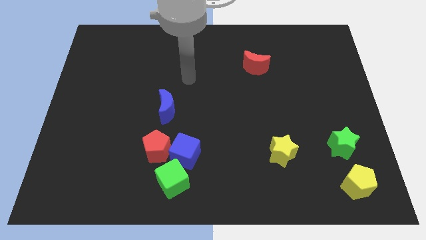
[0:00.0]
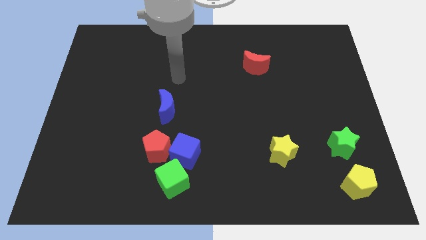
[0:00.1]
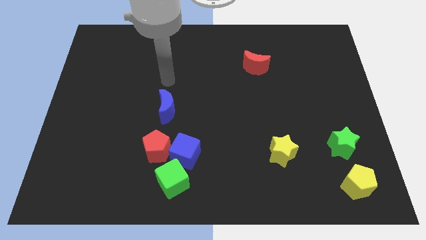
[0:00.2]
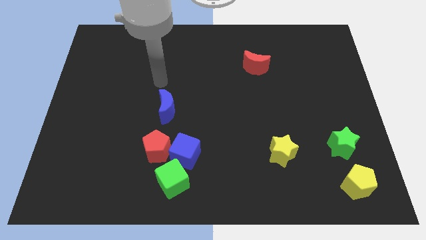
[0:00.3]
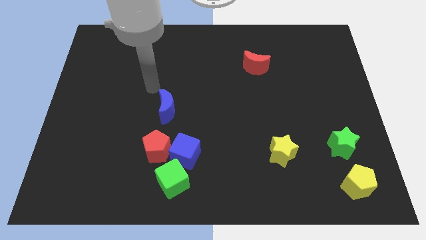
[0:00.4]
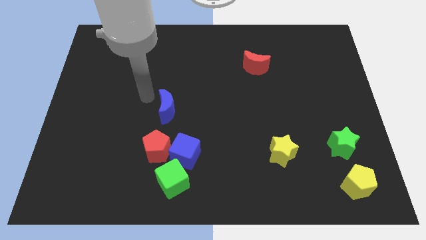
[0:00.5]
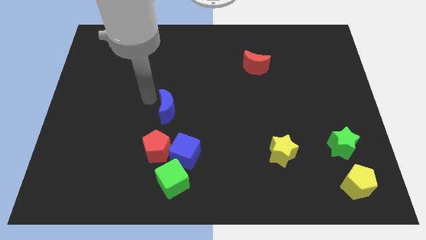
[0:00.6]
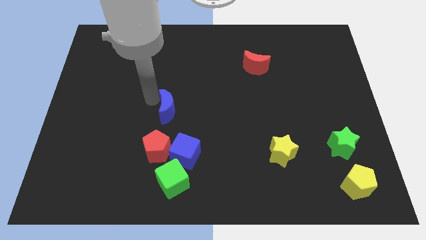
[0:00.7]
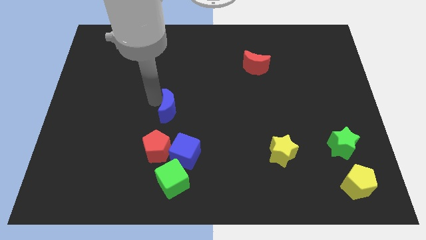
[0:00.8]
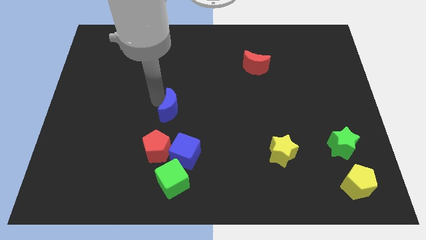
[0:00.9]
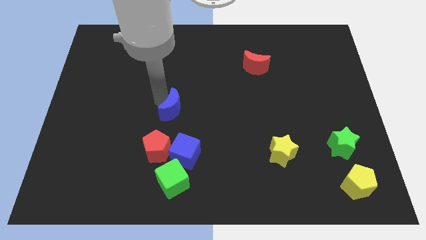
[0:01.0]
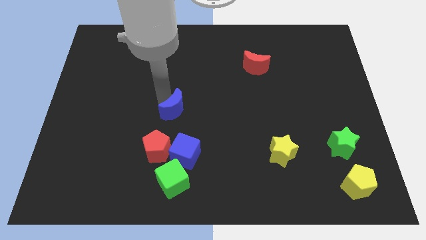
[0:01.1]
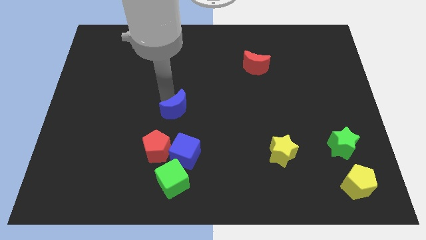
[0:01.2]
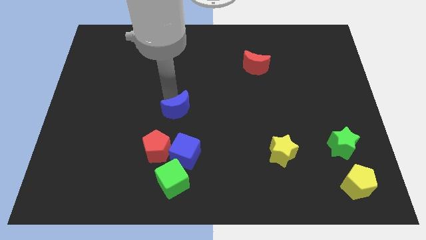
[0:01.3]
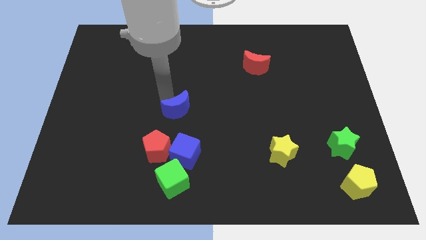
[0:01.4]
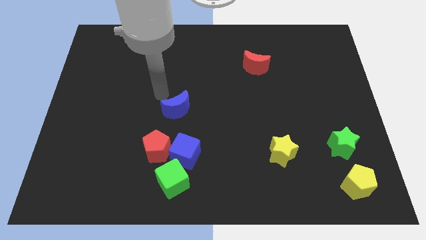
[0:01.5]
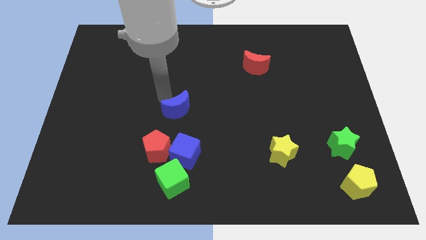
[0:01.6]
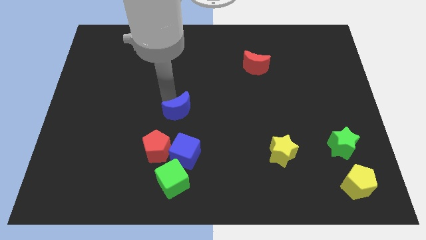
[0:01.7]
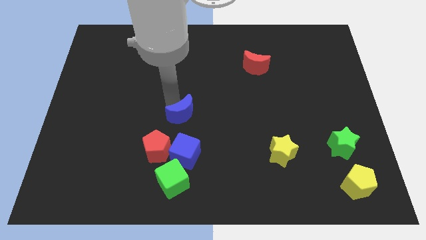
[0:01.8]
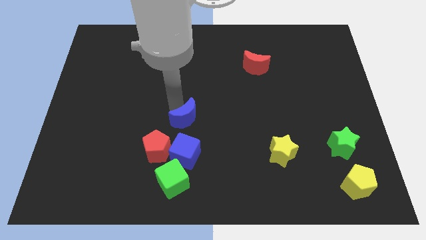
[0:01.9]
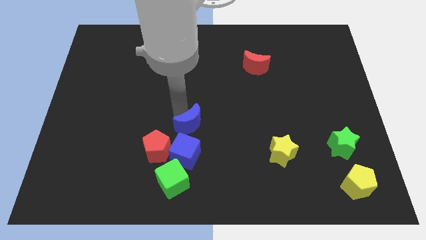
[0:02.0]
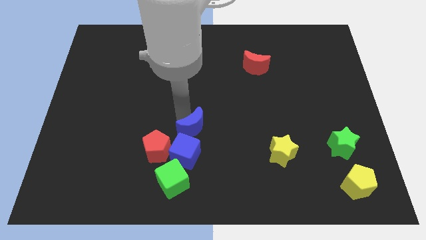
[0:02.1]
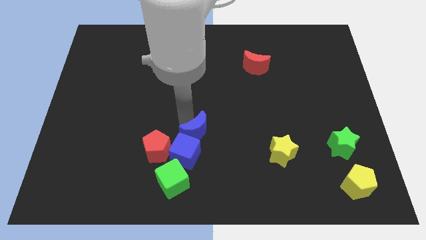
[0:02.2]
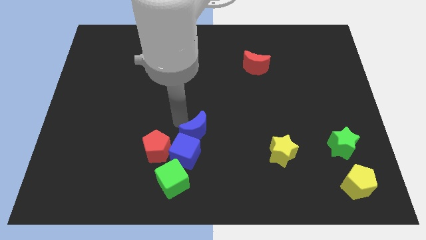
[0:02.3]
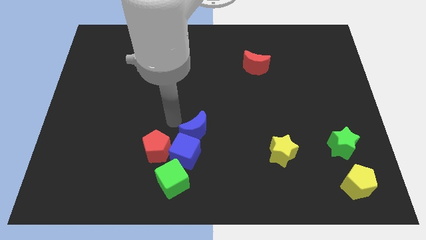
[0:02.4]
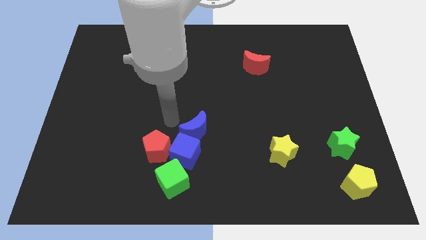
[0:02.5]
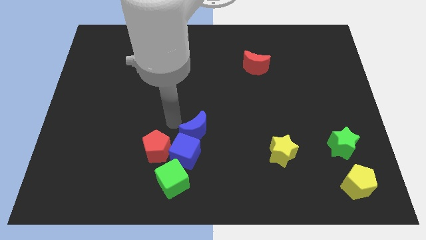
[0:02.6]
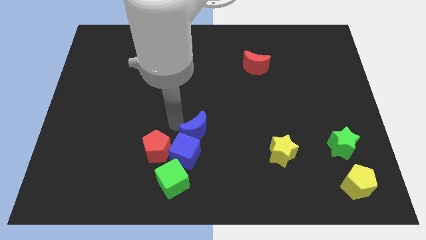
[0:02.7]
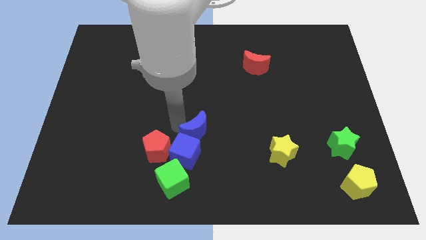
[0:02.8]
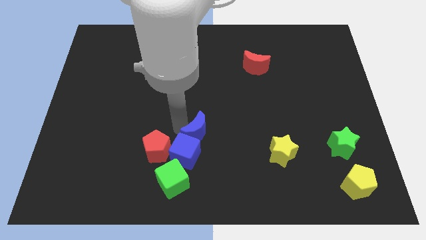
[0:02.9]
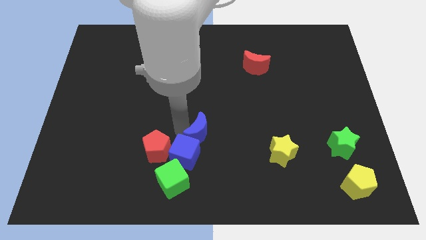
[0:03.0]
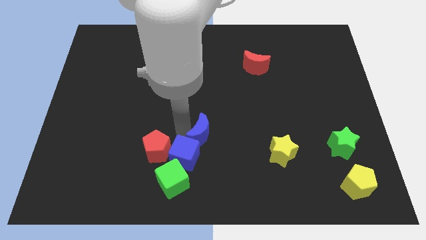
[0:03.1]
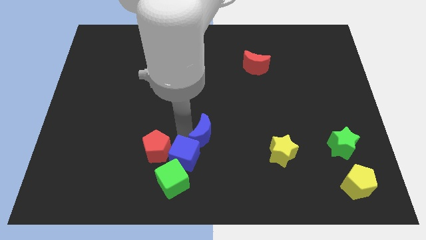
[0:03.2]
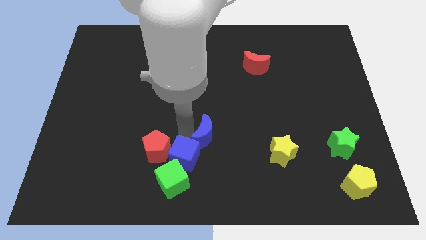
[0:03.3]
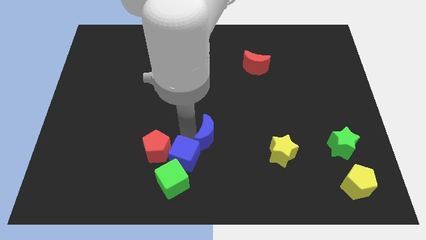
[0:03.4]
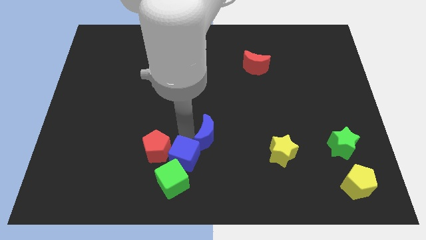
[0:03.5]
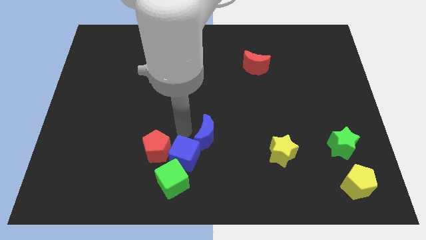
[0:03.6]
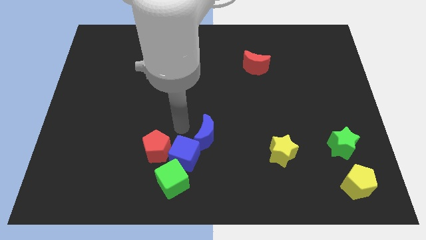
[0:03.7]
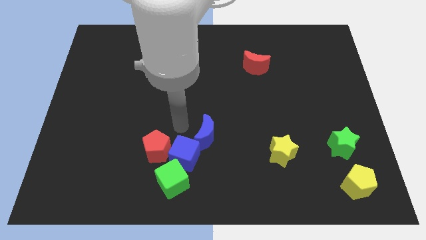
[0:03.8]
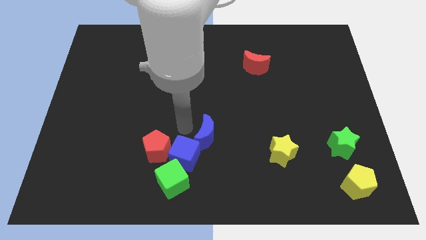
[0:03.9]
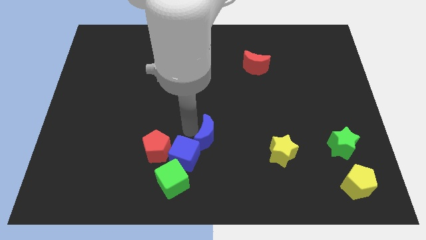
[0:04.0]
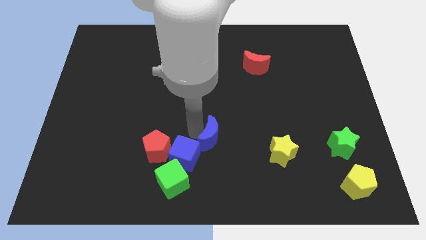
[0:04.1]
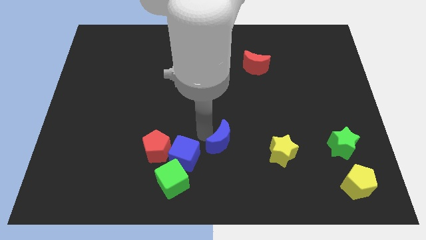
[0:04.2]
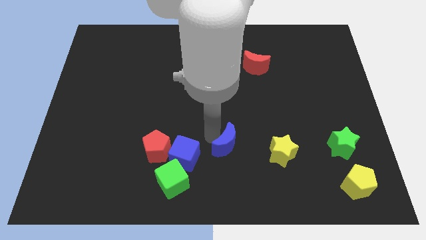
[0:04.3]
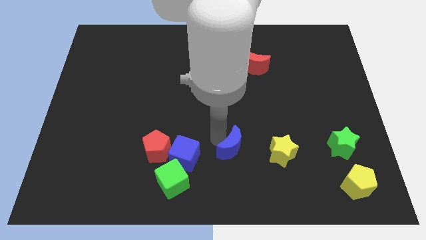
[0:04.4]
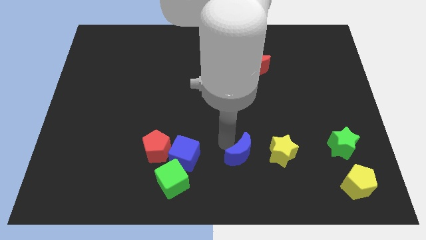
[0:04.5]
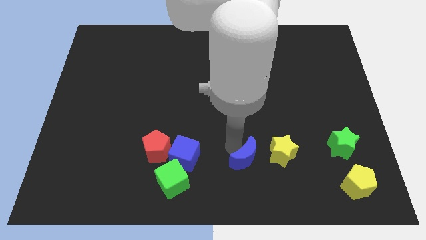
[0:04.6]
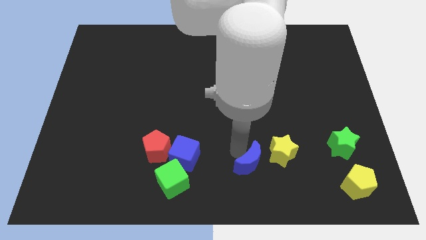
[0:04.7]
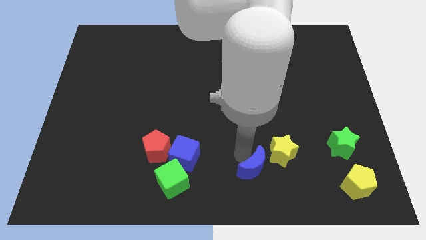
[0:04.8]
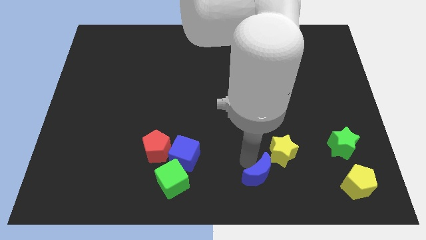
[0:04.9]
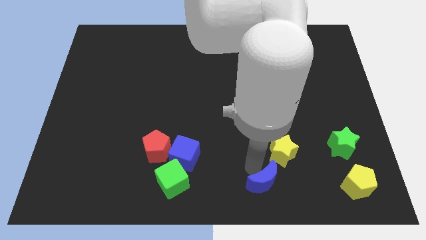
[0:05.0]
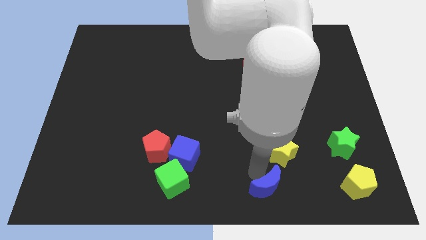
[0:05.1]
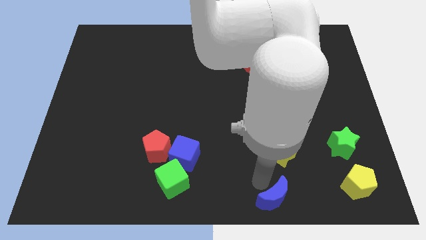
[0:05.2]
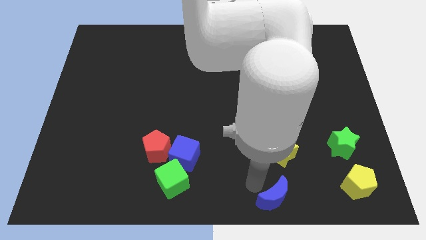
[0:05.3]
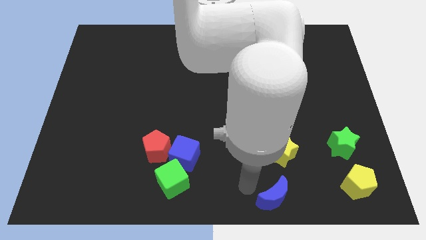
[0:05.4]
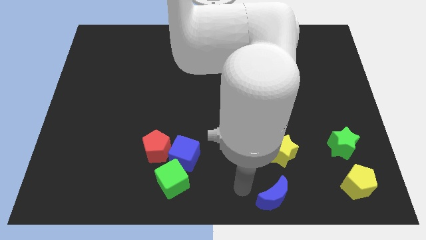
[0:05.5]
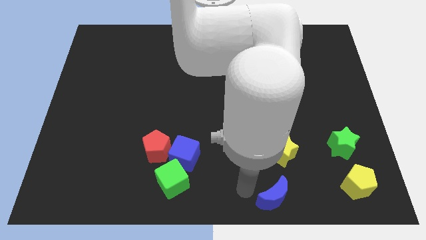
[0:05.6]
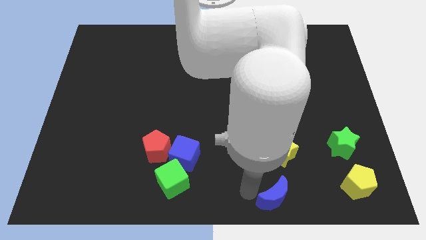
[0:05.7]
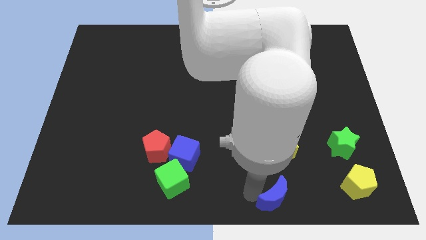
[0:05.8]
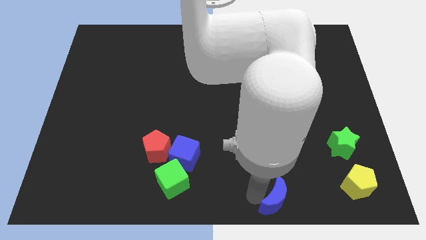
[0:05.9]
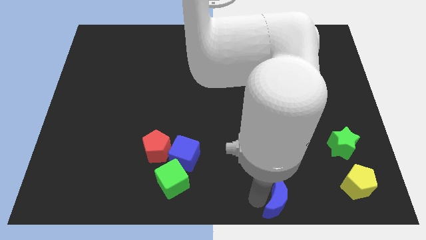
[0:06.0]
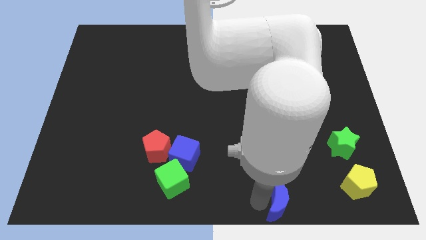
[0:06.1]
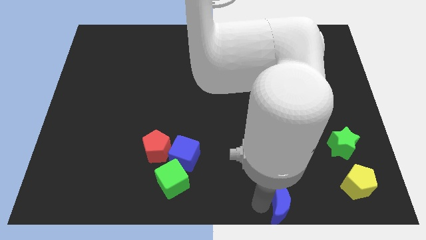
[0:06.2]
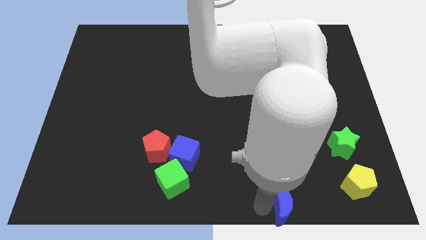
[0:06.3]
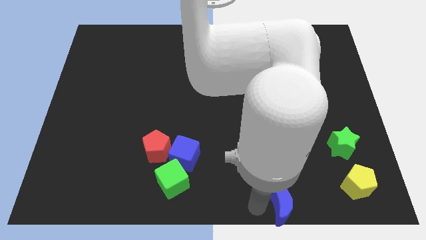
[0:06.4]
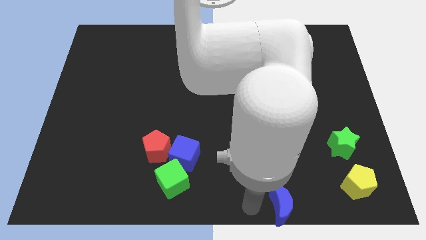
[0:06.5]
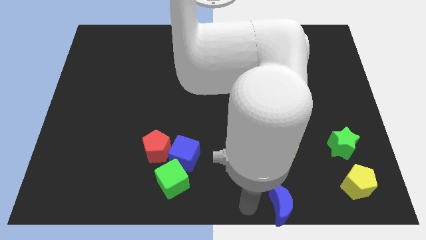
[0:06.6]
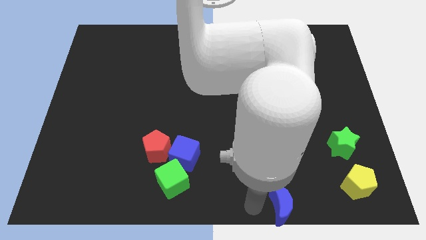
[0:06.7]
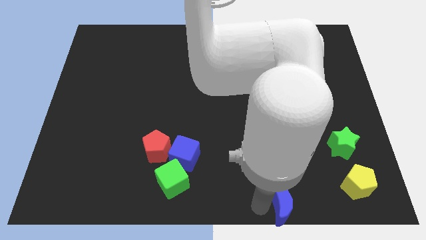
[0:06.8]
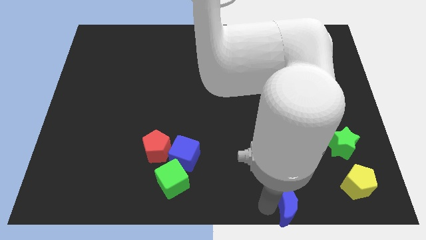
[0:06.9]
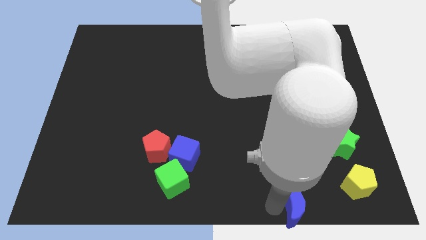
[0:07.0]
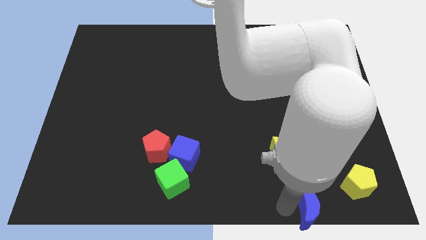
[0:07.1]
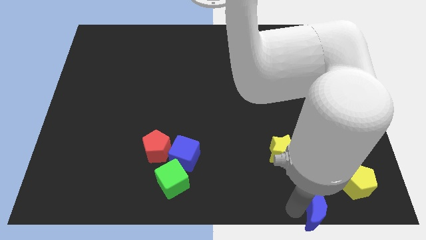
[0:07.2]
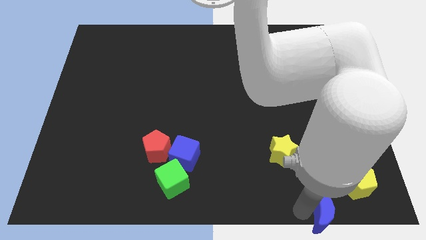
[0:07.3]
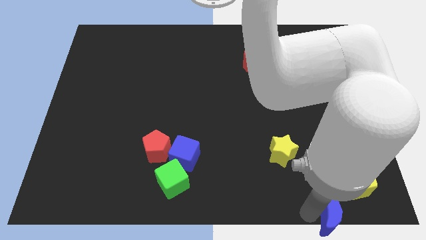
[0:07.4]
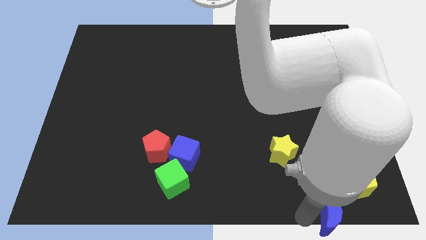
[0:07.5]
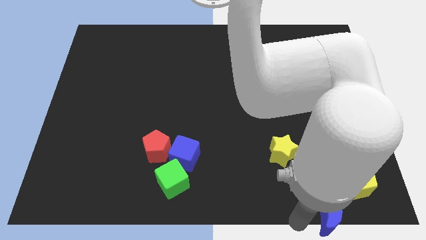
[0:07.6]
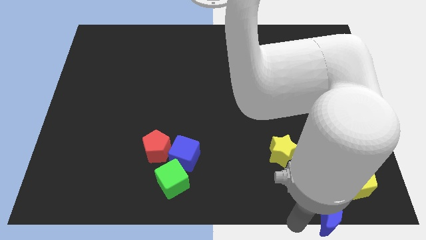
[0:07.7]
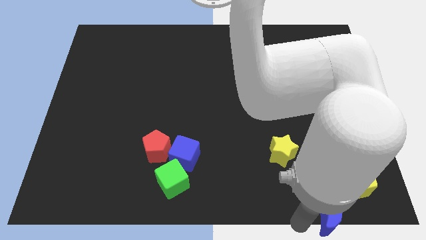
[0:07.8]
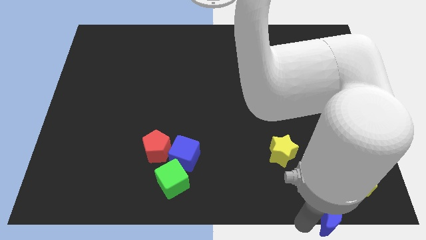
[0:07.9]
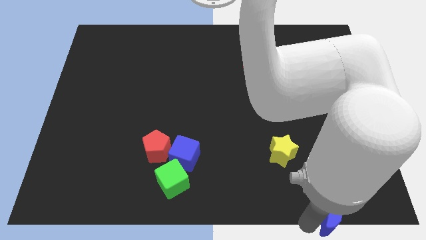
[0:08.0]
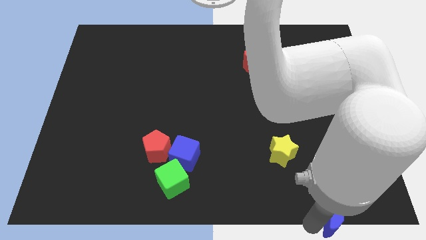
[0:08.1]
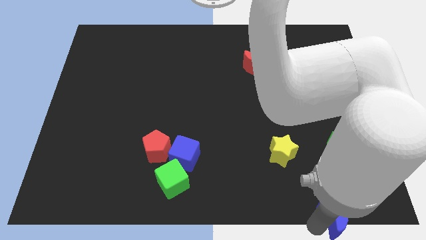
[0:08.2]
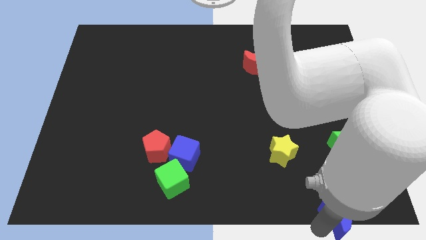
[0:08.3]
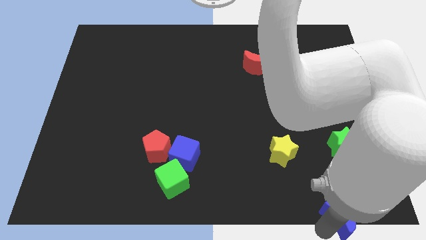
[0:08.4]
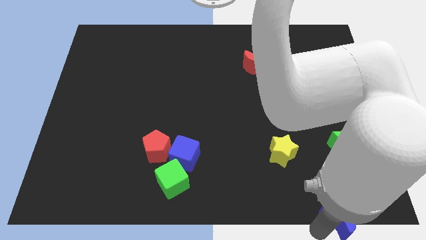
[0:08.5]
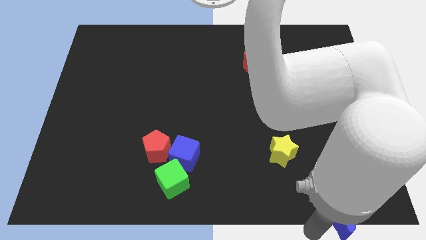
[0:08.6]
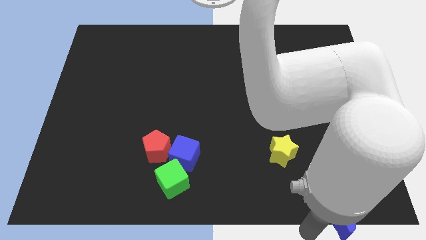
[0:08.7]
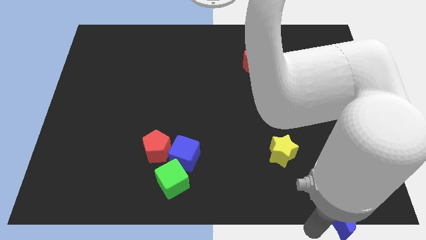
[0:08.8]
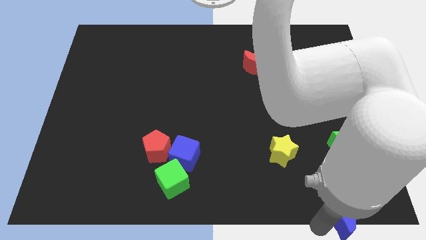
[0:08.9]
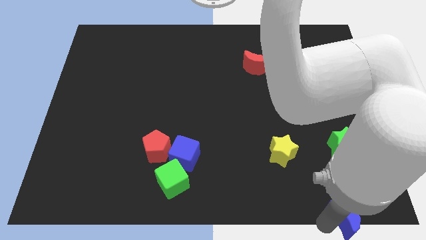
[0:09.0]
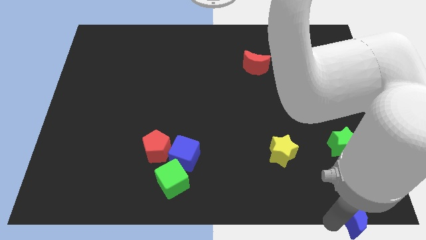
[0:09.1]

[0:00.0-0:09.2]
move the blue moon to the bottom right
